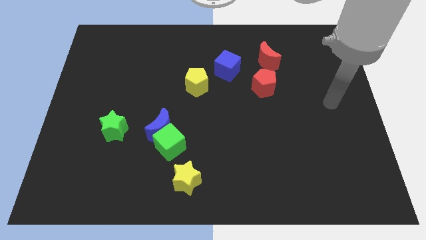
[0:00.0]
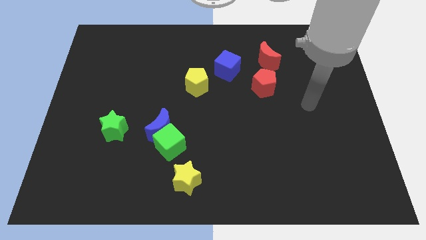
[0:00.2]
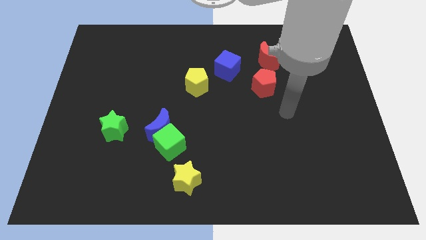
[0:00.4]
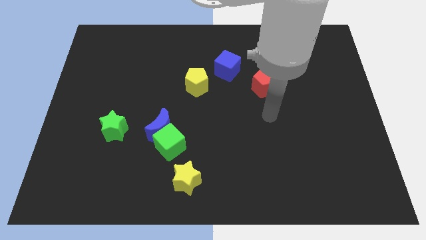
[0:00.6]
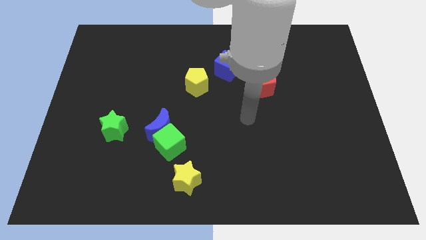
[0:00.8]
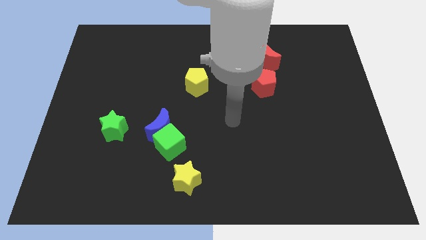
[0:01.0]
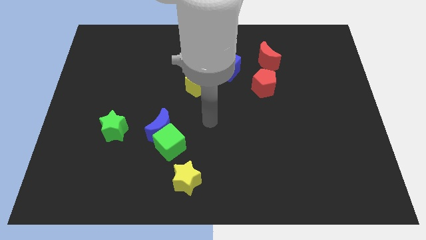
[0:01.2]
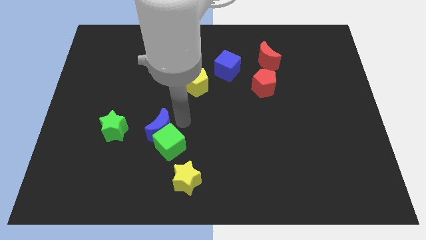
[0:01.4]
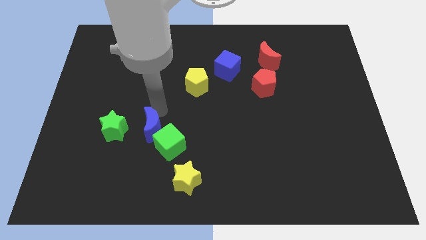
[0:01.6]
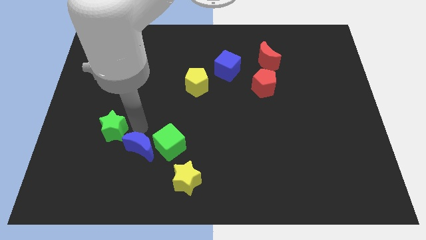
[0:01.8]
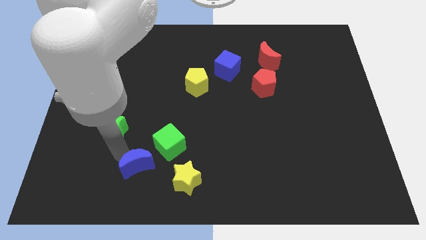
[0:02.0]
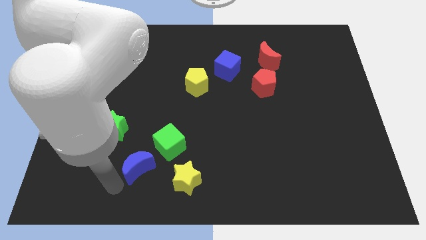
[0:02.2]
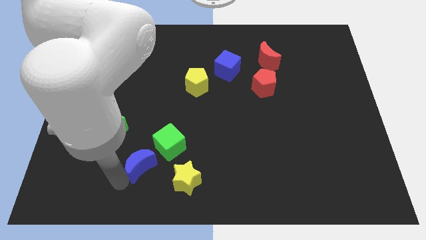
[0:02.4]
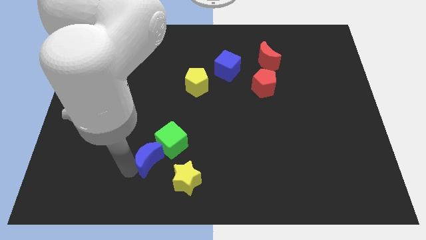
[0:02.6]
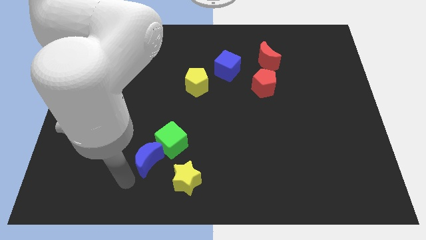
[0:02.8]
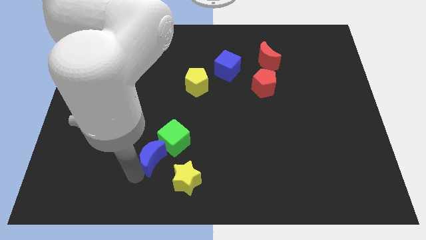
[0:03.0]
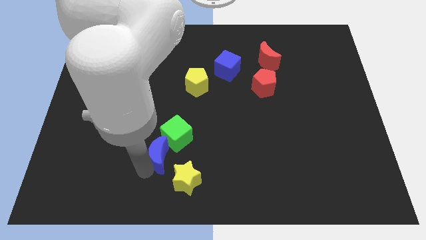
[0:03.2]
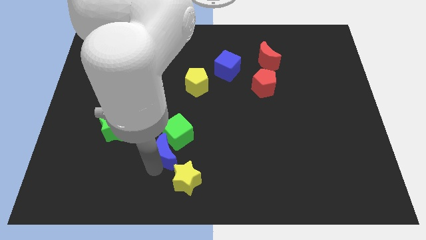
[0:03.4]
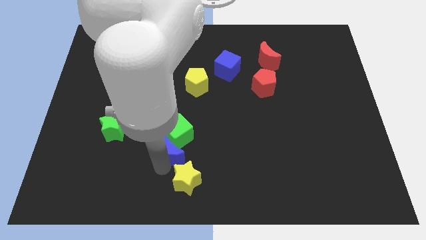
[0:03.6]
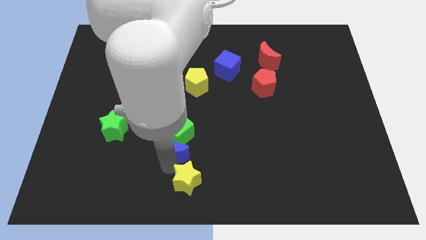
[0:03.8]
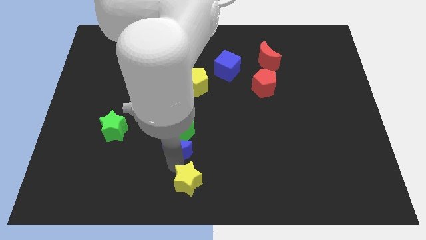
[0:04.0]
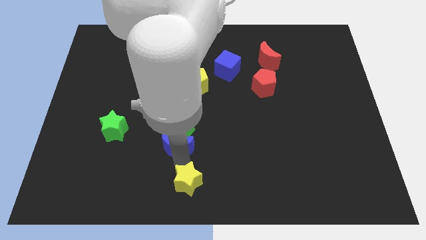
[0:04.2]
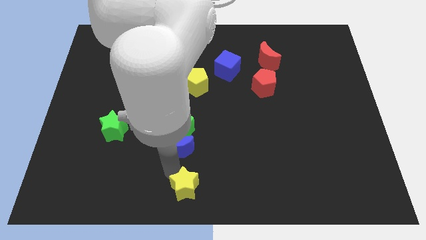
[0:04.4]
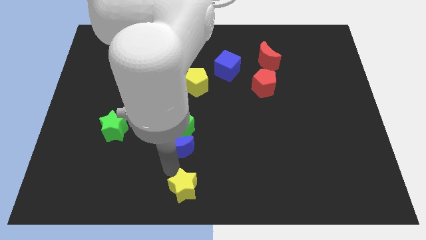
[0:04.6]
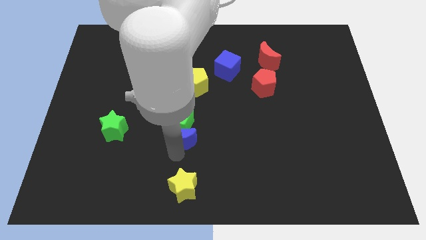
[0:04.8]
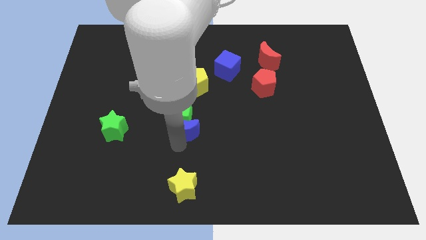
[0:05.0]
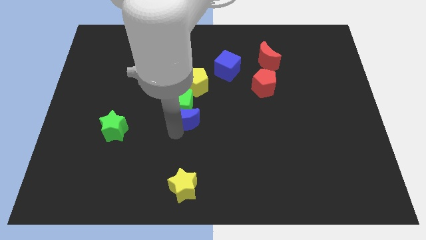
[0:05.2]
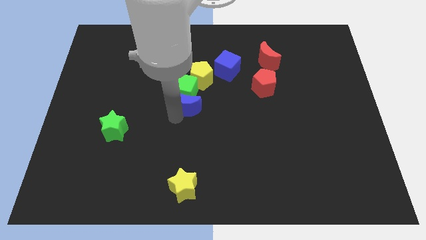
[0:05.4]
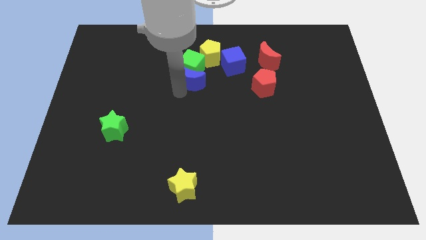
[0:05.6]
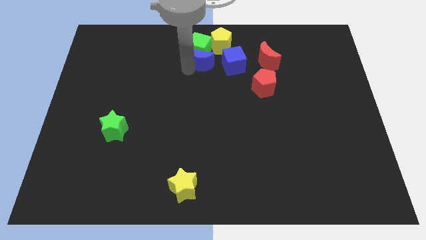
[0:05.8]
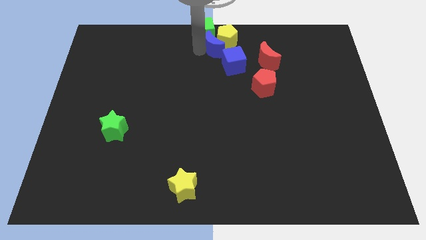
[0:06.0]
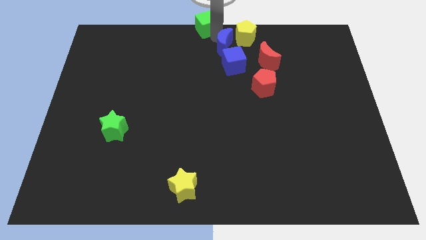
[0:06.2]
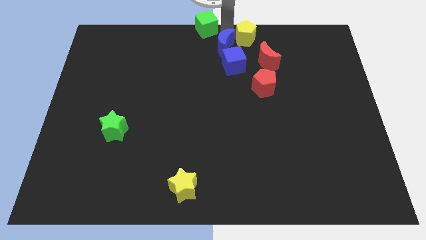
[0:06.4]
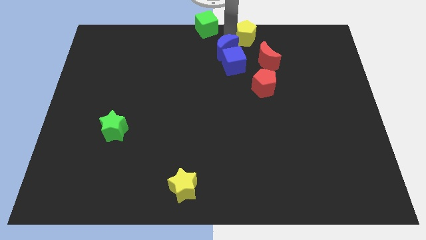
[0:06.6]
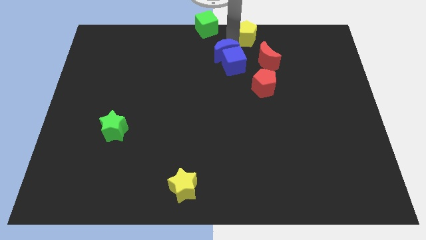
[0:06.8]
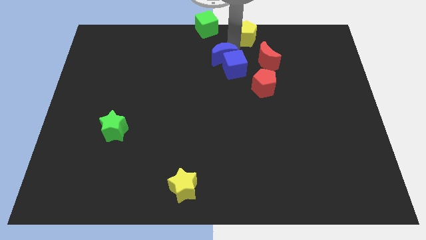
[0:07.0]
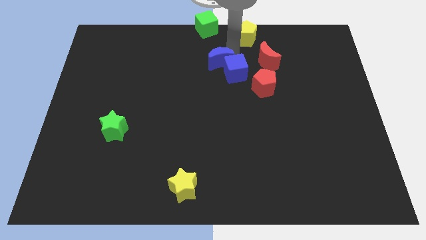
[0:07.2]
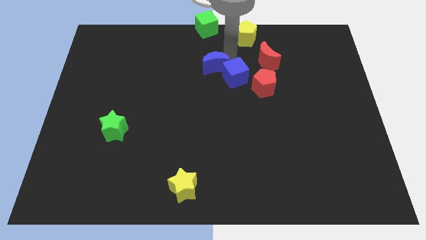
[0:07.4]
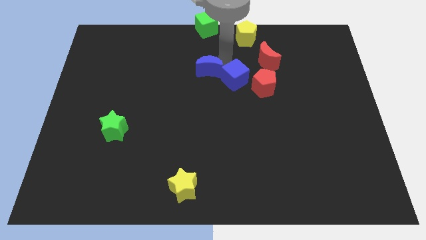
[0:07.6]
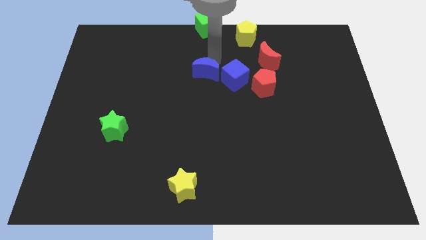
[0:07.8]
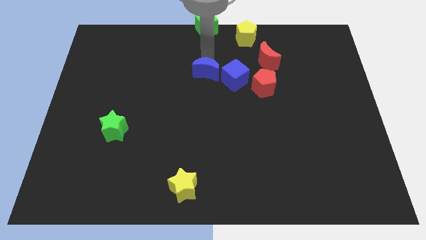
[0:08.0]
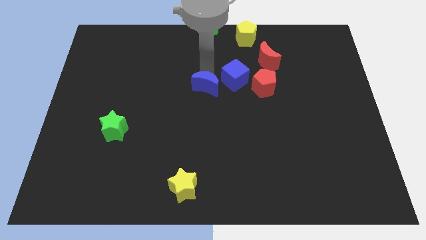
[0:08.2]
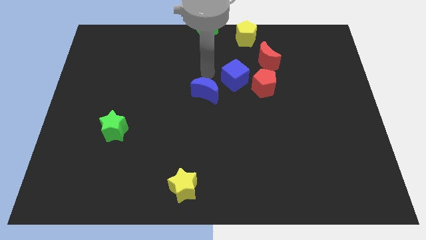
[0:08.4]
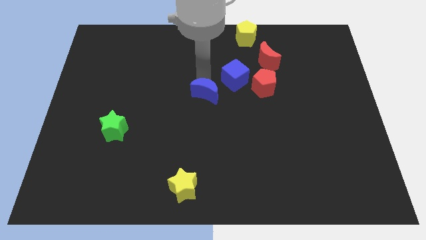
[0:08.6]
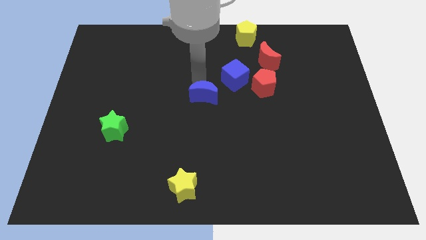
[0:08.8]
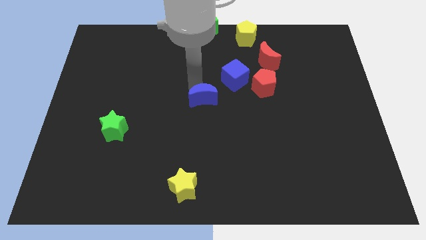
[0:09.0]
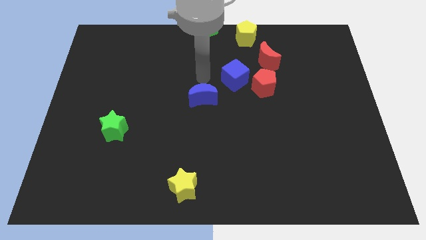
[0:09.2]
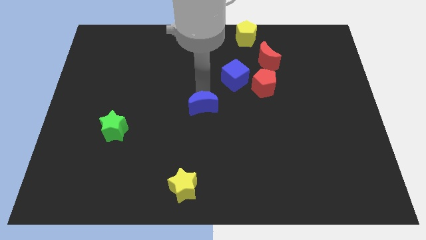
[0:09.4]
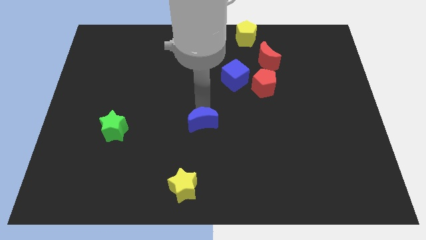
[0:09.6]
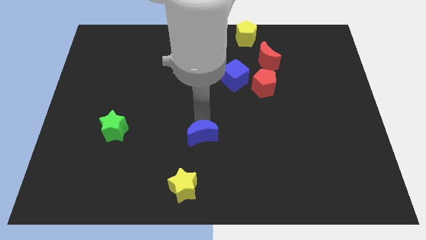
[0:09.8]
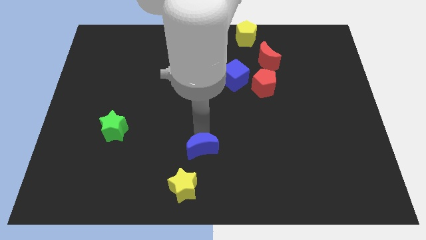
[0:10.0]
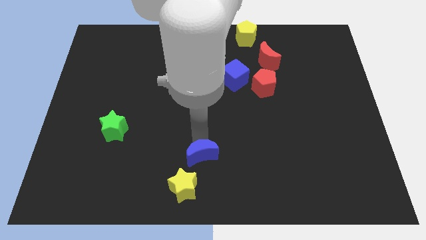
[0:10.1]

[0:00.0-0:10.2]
put the blue moon to the bottom
